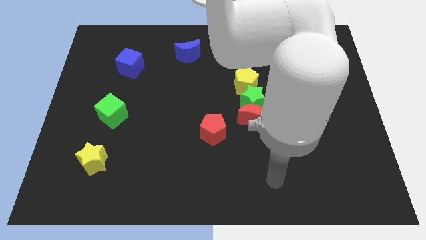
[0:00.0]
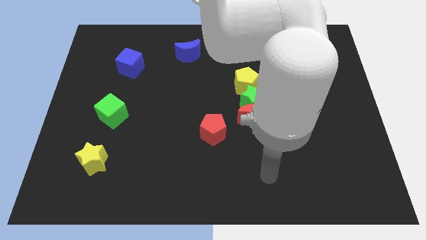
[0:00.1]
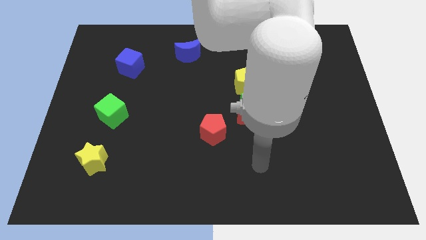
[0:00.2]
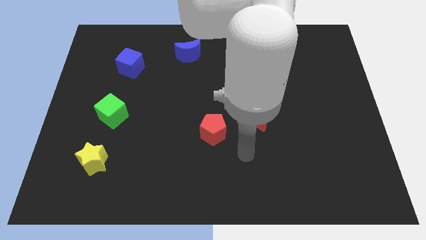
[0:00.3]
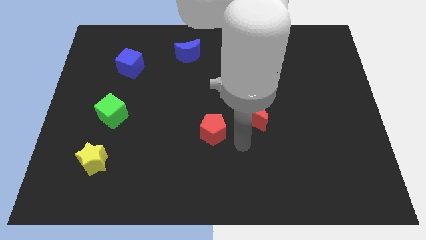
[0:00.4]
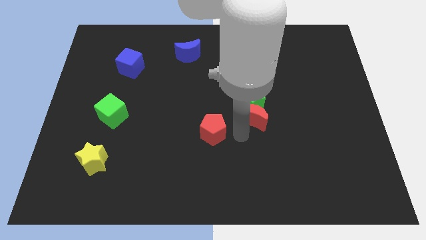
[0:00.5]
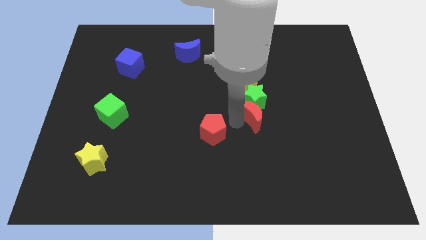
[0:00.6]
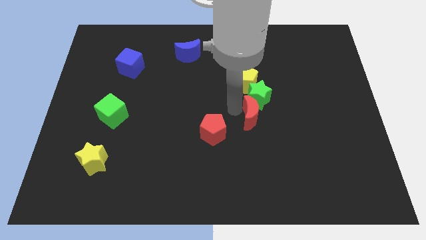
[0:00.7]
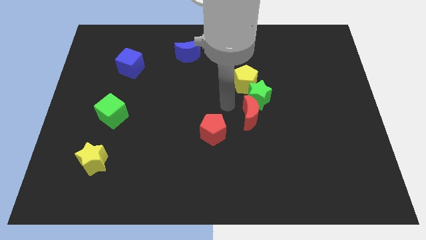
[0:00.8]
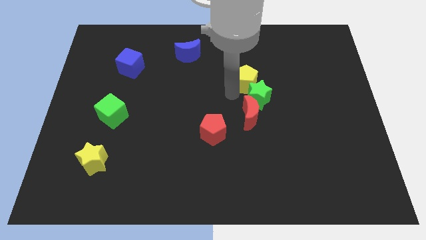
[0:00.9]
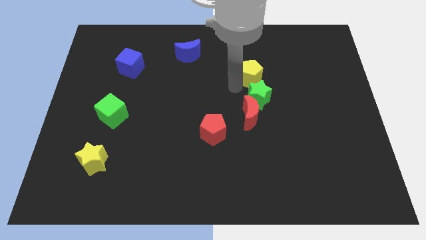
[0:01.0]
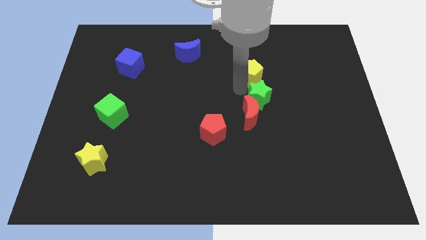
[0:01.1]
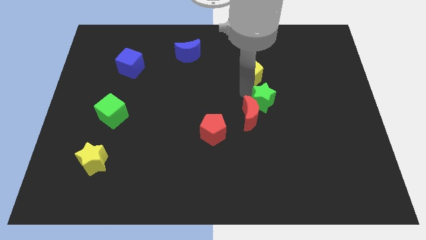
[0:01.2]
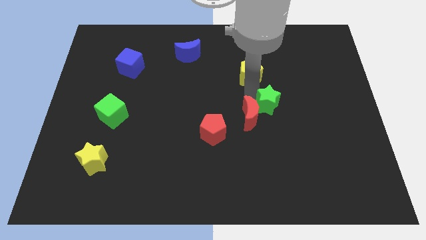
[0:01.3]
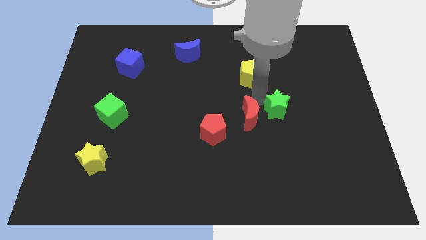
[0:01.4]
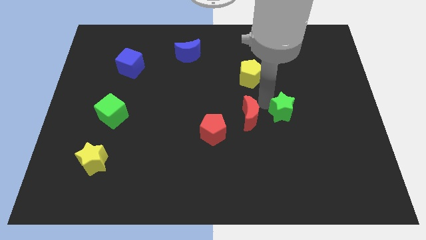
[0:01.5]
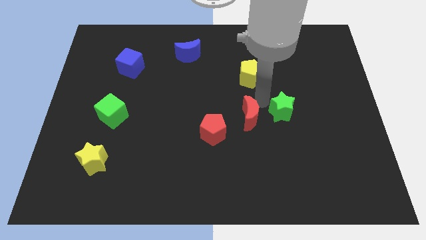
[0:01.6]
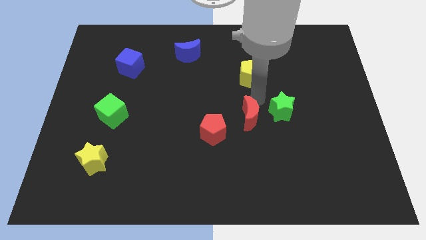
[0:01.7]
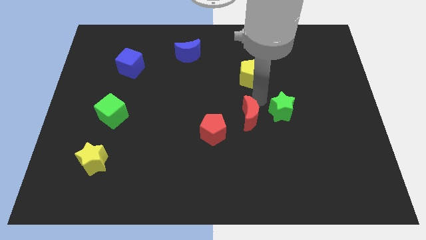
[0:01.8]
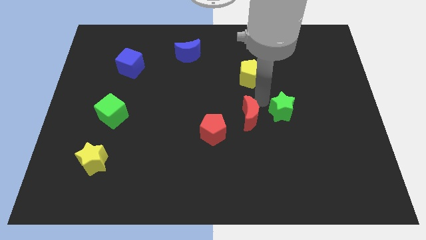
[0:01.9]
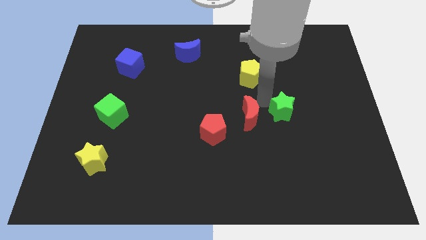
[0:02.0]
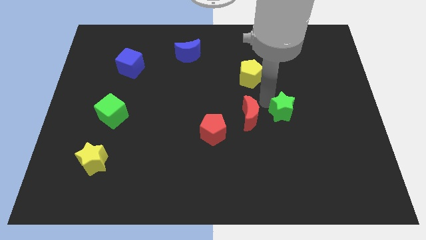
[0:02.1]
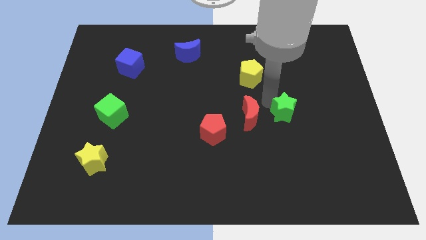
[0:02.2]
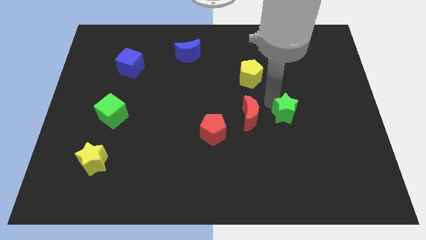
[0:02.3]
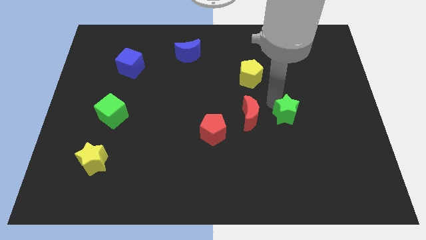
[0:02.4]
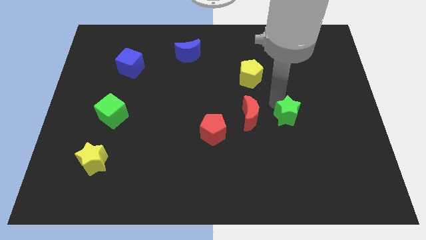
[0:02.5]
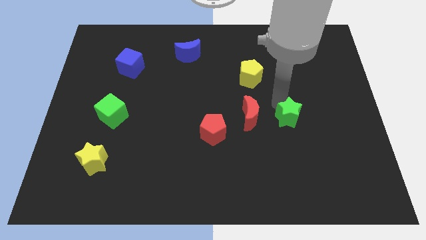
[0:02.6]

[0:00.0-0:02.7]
move the green star away from the red moon and yellow pentagon

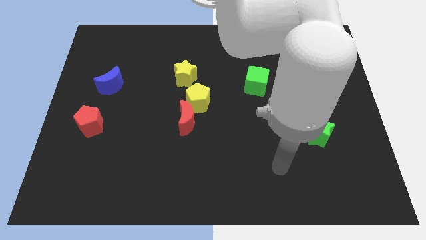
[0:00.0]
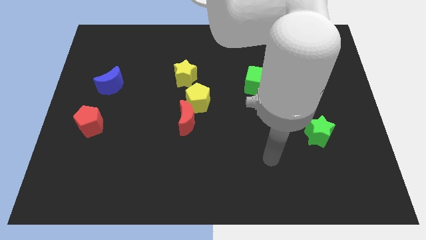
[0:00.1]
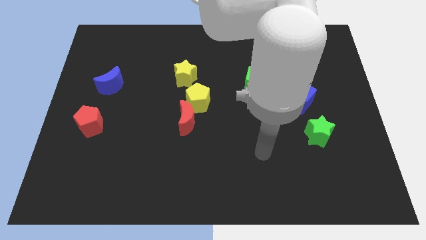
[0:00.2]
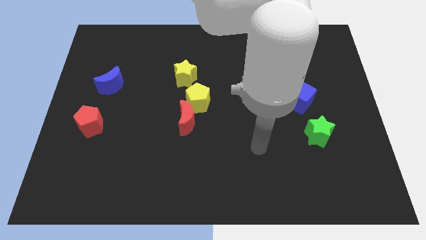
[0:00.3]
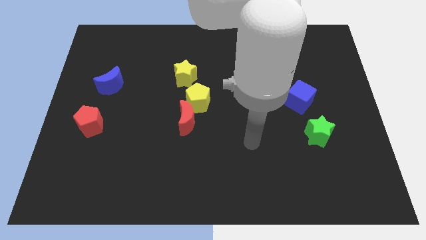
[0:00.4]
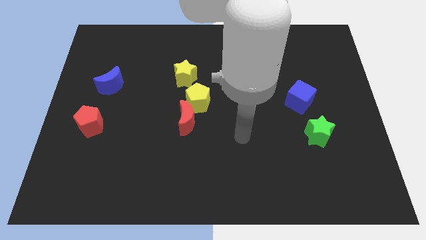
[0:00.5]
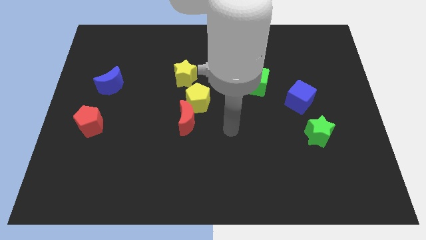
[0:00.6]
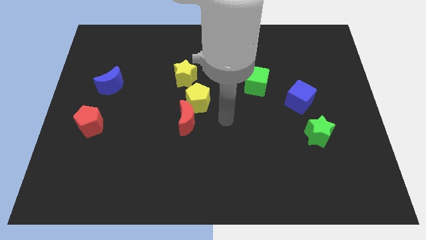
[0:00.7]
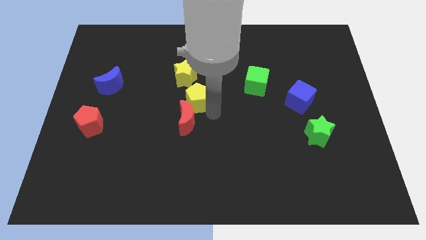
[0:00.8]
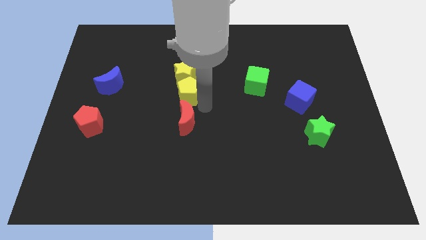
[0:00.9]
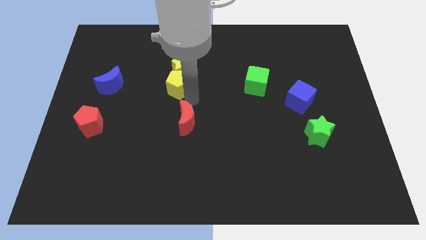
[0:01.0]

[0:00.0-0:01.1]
move the red moon away from the yellow pentagon

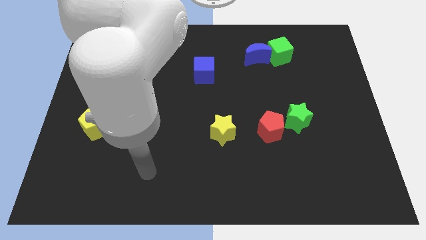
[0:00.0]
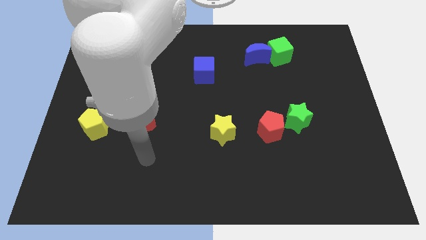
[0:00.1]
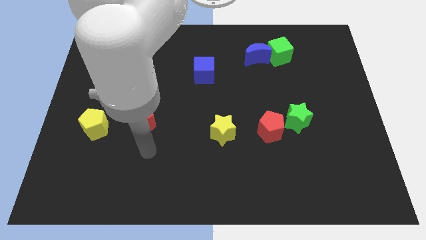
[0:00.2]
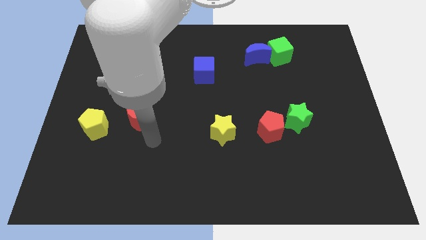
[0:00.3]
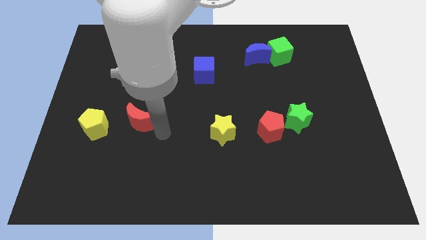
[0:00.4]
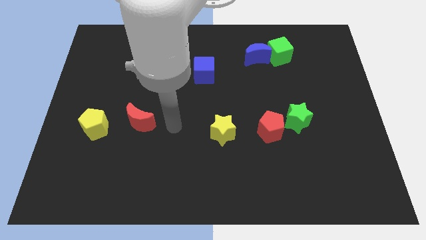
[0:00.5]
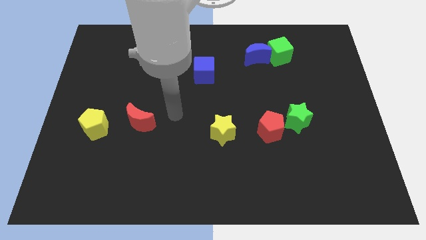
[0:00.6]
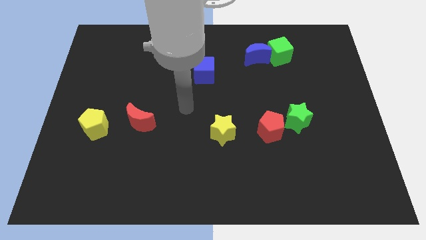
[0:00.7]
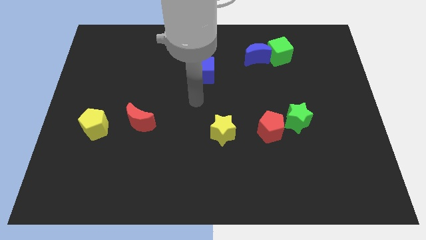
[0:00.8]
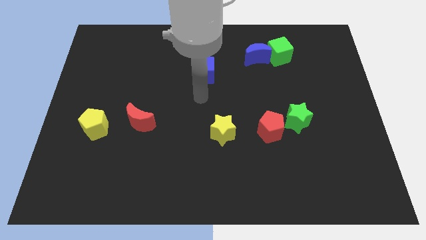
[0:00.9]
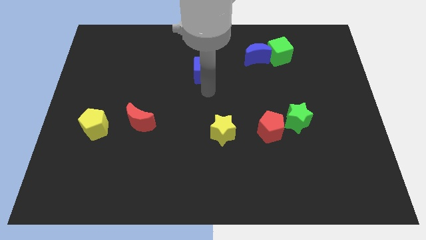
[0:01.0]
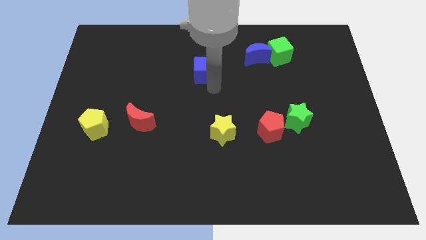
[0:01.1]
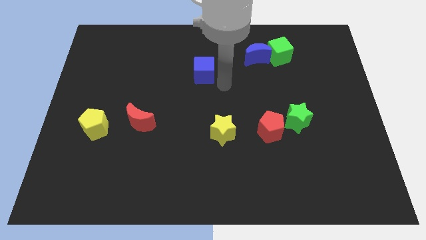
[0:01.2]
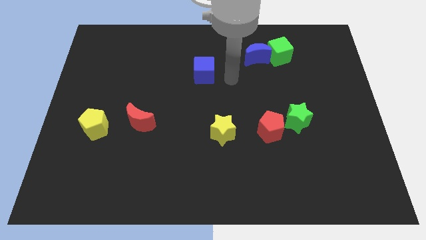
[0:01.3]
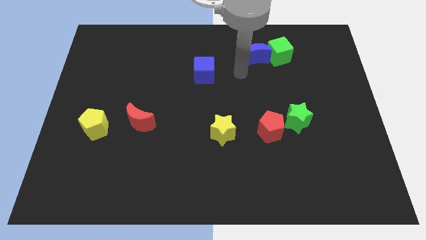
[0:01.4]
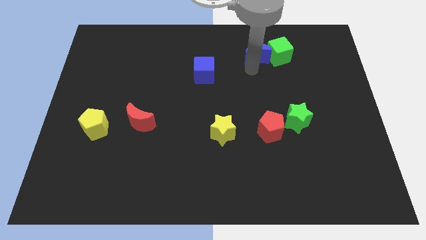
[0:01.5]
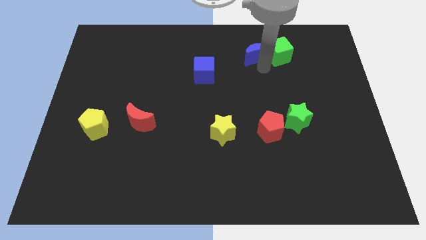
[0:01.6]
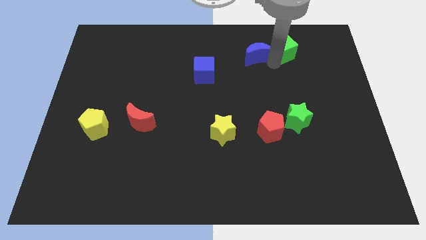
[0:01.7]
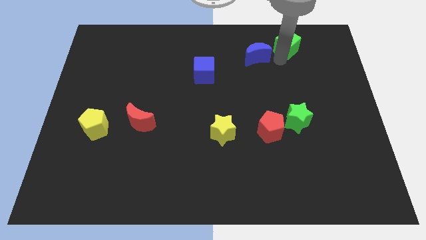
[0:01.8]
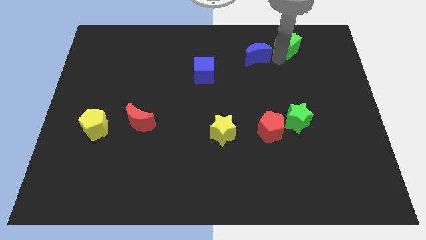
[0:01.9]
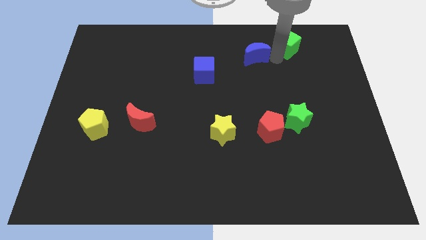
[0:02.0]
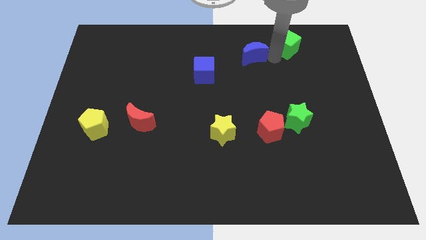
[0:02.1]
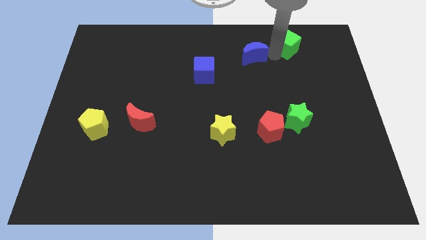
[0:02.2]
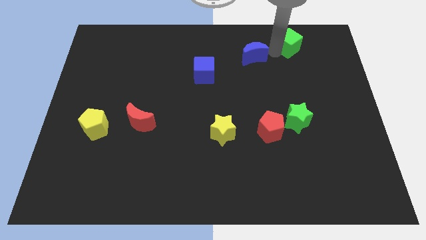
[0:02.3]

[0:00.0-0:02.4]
separate the blue moon from the green cube

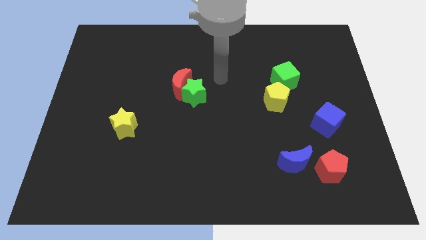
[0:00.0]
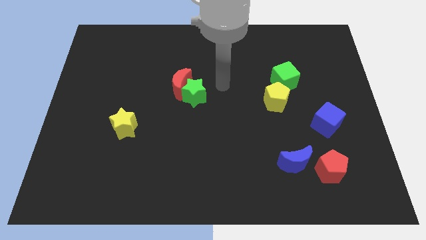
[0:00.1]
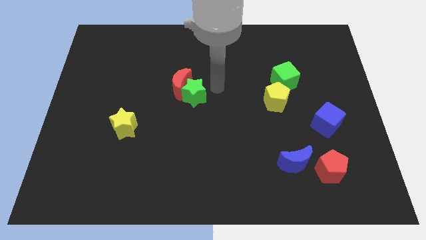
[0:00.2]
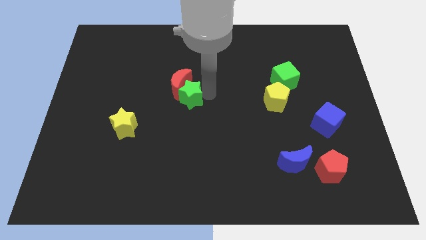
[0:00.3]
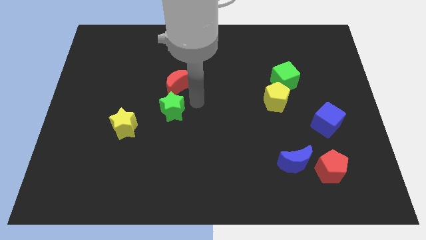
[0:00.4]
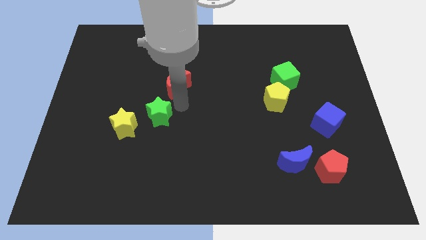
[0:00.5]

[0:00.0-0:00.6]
pull the red moon apart from the green star

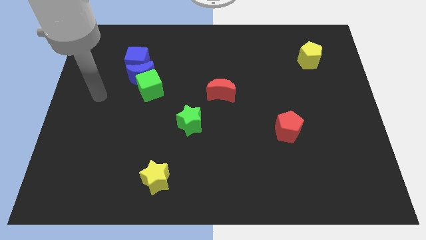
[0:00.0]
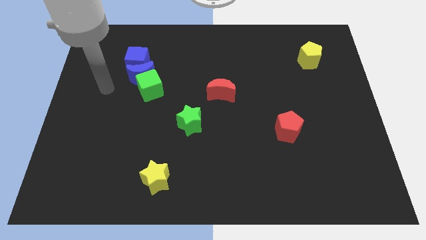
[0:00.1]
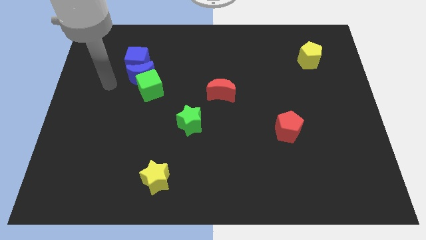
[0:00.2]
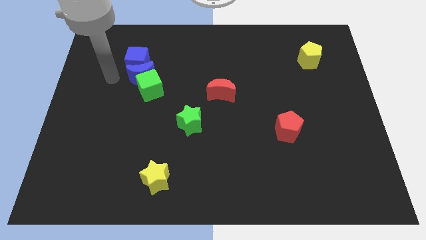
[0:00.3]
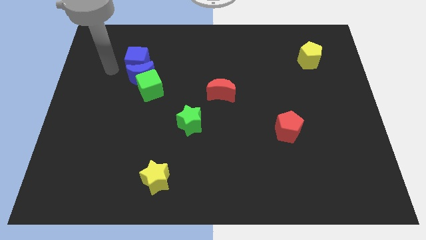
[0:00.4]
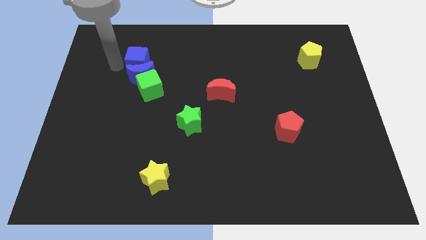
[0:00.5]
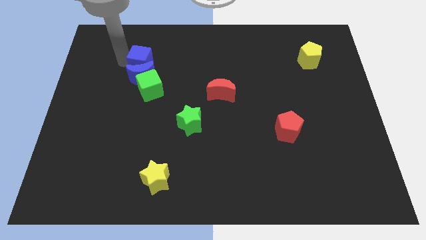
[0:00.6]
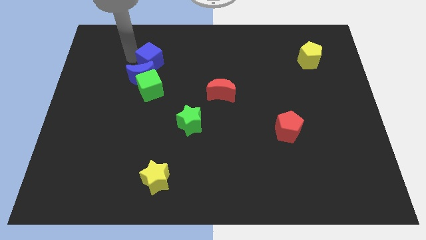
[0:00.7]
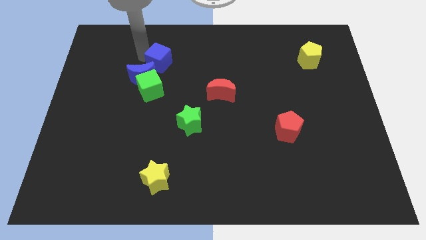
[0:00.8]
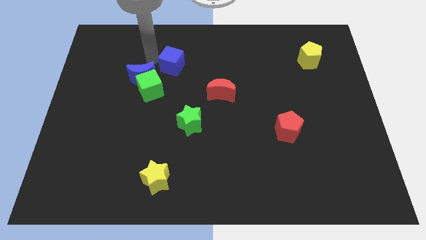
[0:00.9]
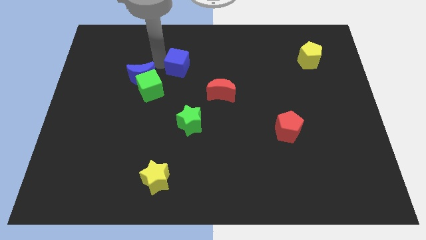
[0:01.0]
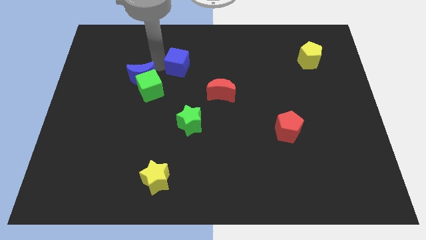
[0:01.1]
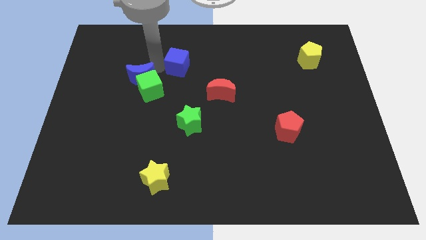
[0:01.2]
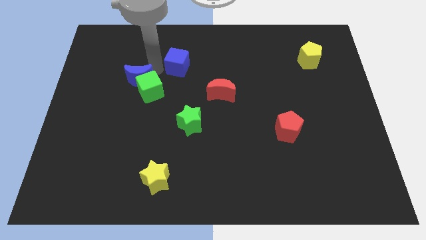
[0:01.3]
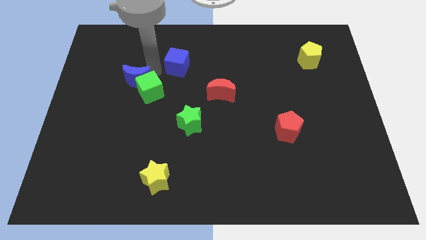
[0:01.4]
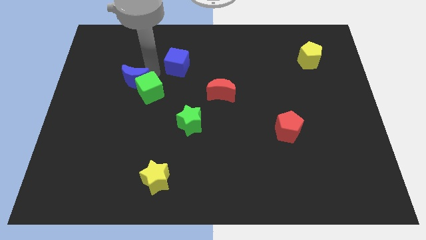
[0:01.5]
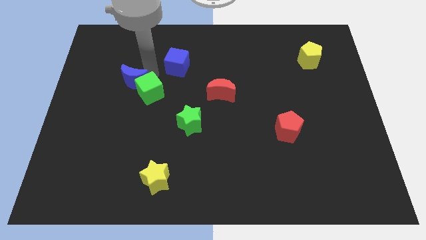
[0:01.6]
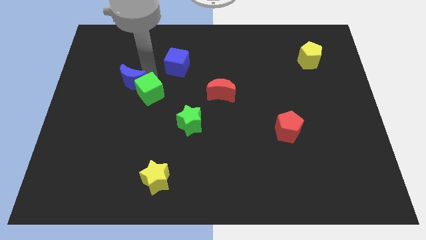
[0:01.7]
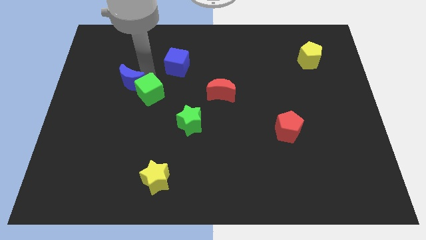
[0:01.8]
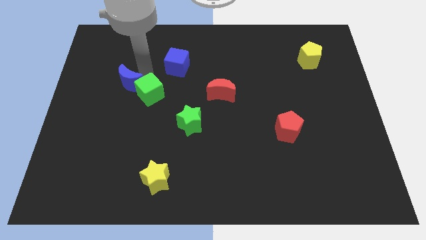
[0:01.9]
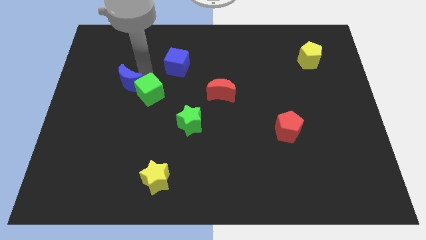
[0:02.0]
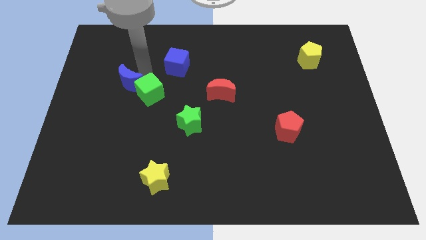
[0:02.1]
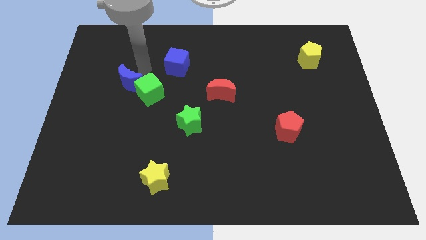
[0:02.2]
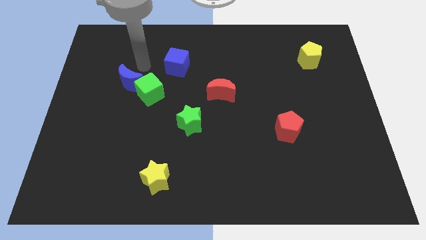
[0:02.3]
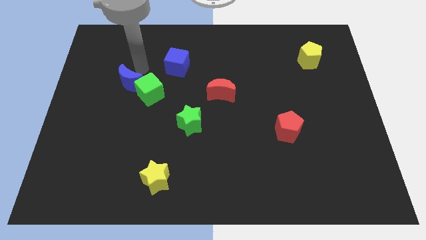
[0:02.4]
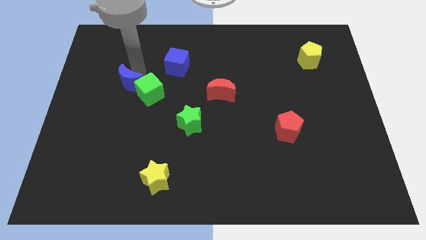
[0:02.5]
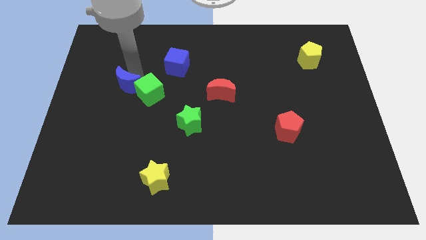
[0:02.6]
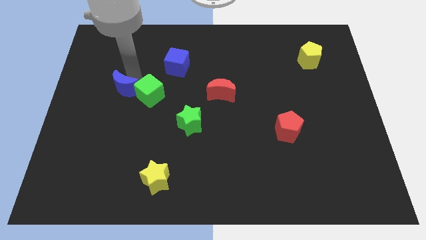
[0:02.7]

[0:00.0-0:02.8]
move the blue moon away from the green cube and blue cube
